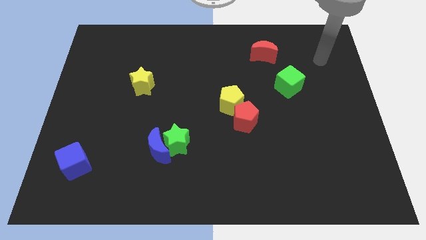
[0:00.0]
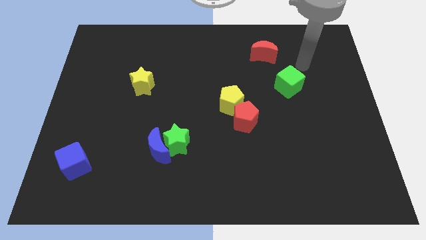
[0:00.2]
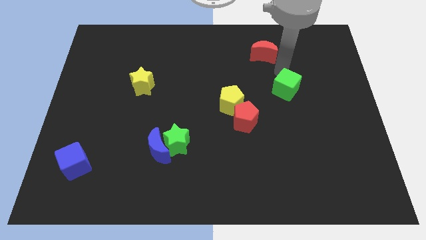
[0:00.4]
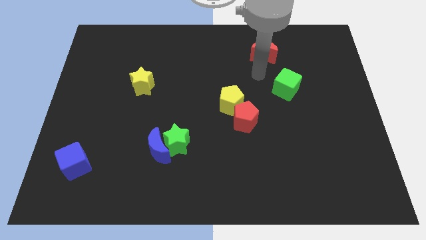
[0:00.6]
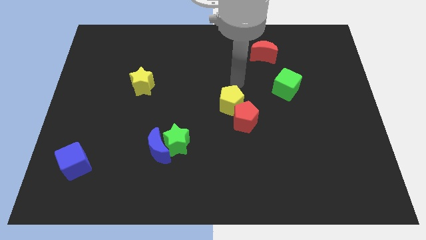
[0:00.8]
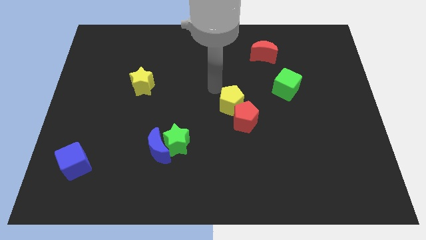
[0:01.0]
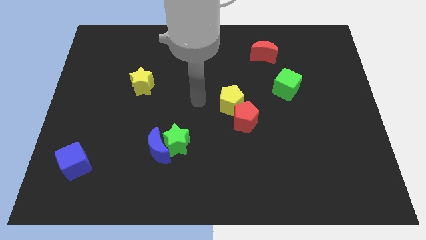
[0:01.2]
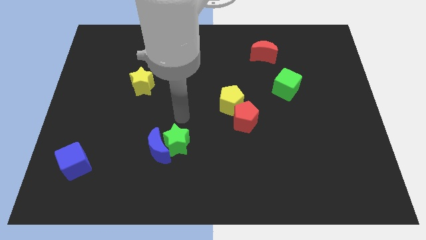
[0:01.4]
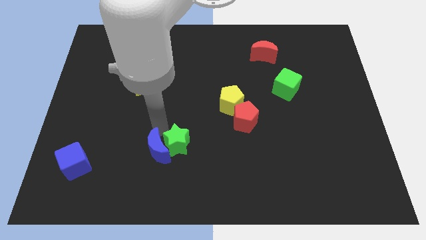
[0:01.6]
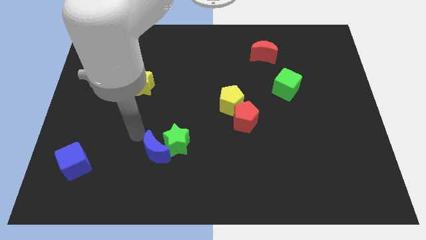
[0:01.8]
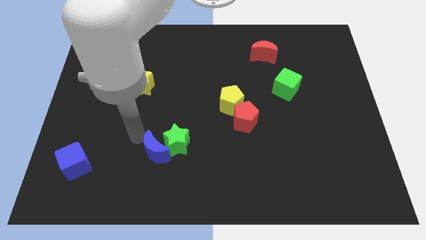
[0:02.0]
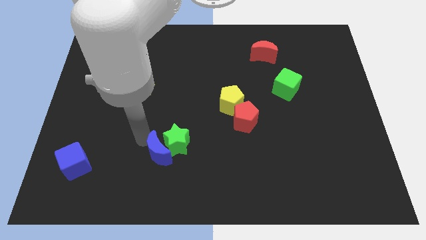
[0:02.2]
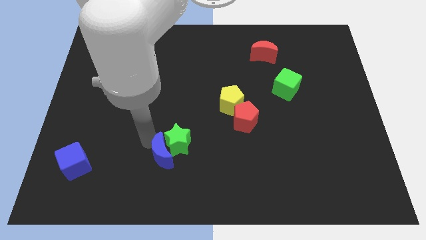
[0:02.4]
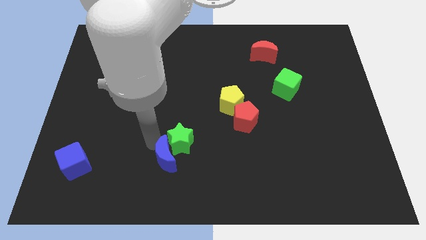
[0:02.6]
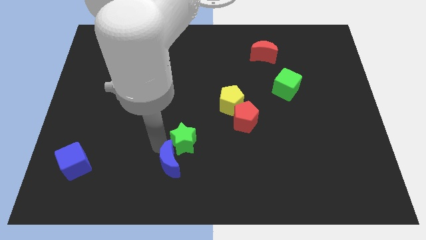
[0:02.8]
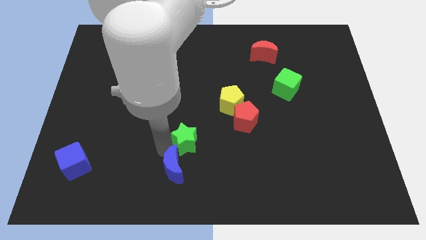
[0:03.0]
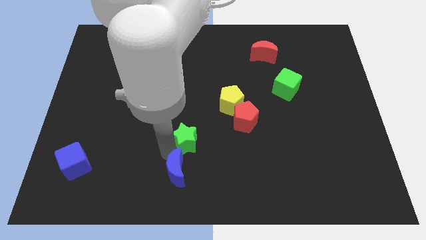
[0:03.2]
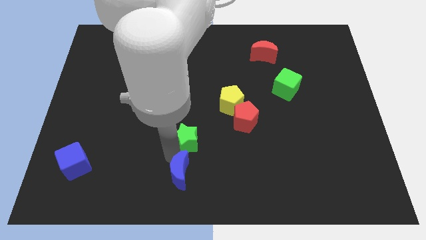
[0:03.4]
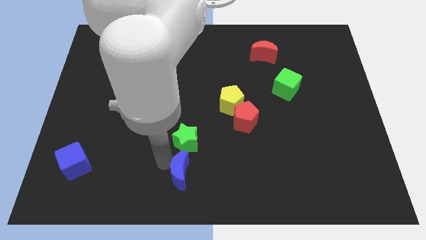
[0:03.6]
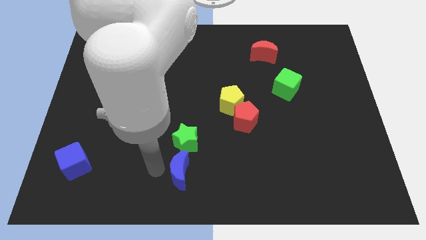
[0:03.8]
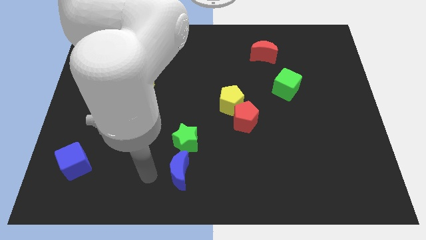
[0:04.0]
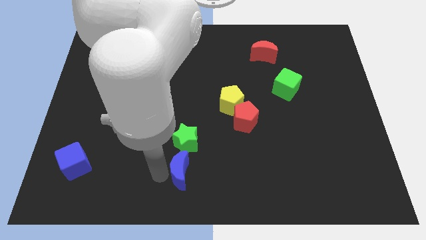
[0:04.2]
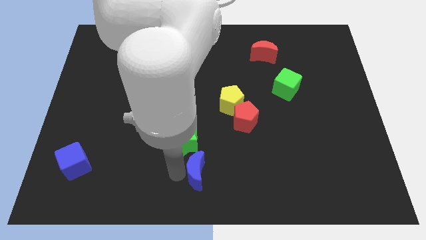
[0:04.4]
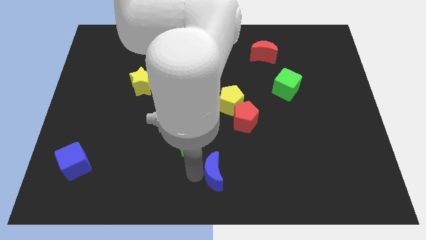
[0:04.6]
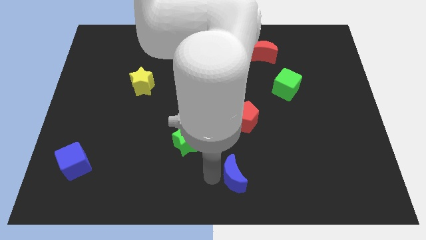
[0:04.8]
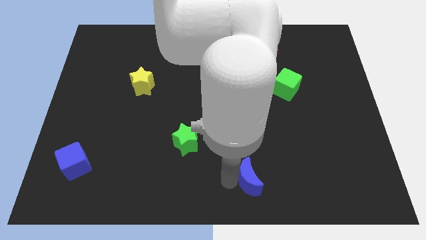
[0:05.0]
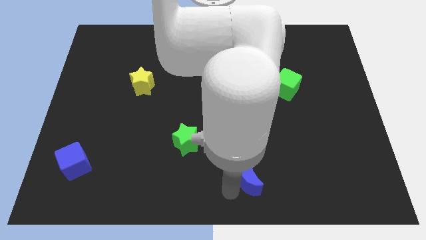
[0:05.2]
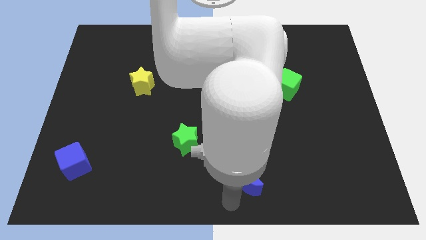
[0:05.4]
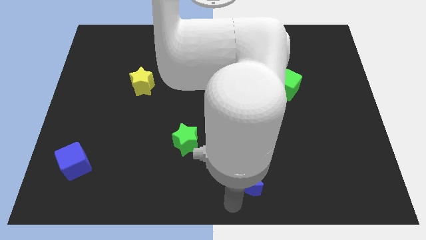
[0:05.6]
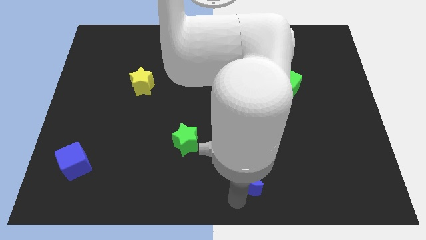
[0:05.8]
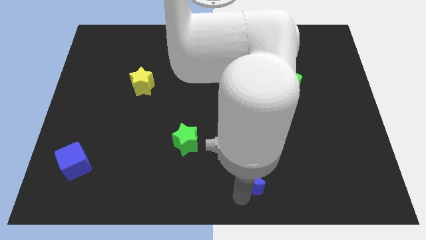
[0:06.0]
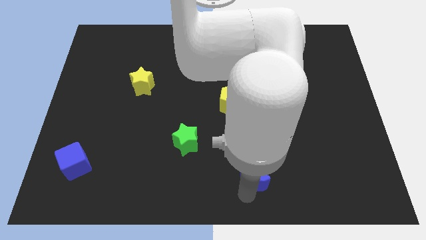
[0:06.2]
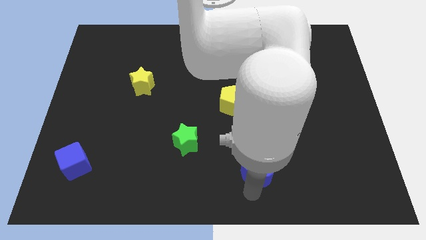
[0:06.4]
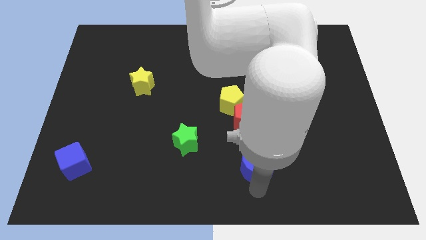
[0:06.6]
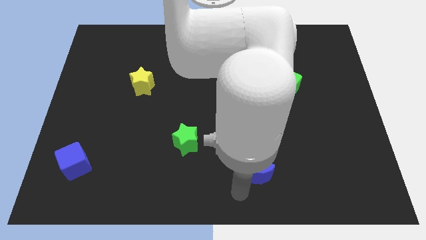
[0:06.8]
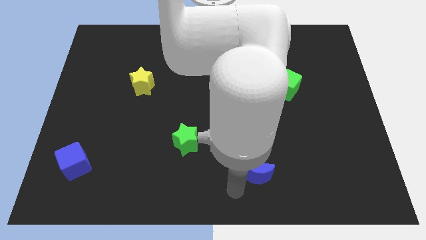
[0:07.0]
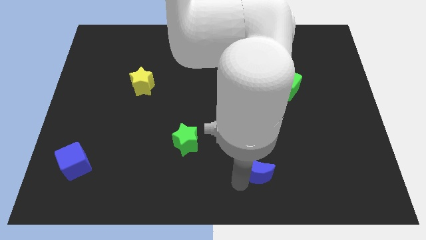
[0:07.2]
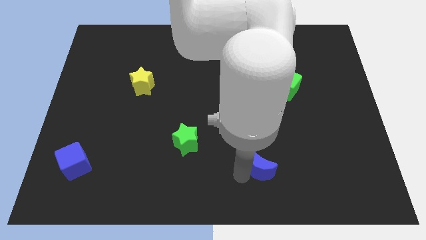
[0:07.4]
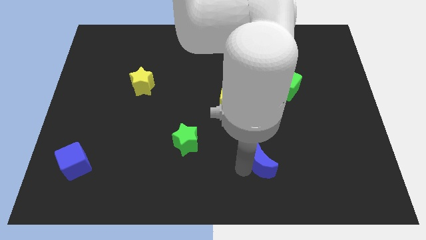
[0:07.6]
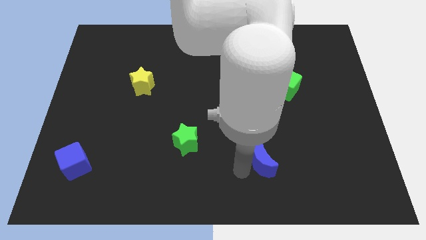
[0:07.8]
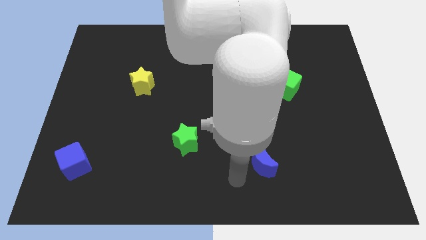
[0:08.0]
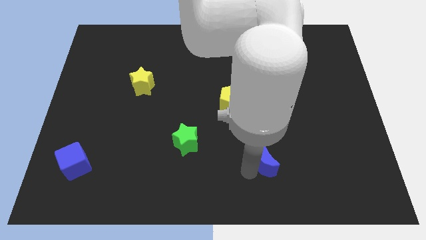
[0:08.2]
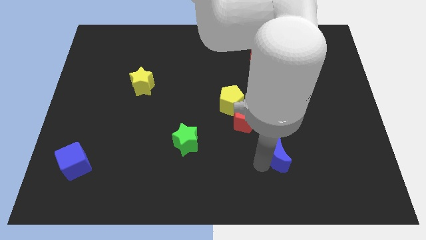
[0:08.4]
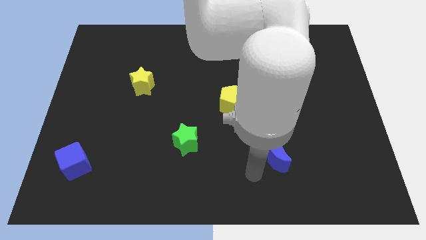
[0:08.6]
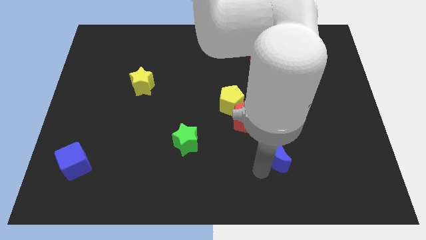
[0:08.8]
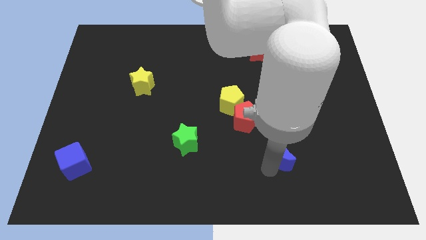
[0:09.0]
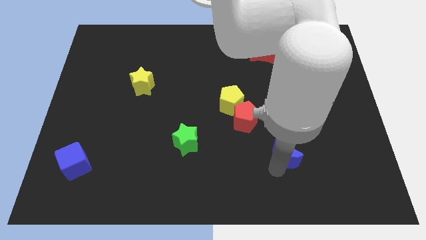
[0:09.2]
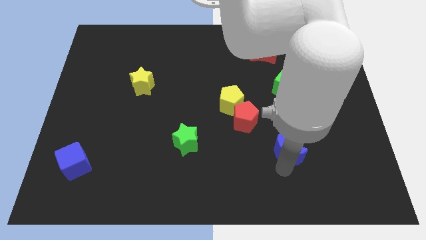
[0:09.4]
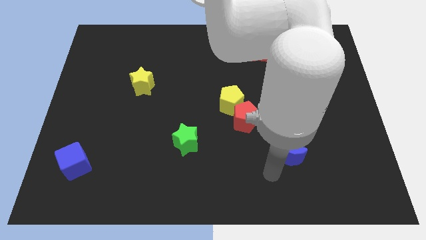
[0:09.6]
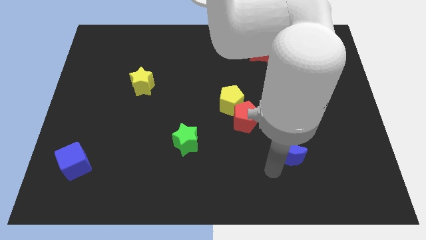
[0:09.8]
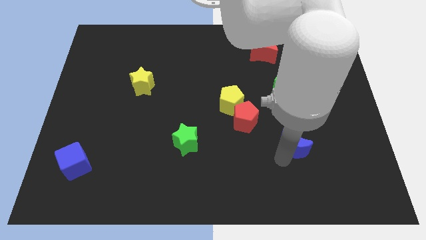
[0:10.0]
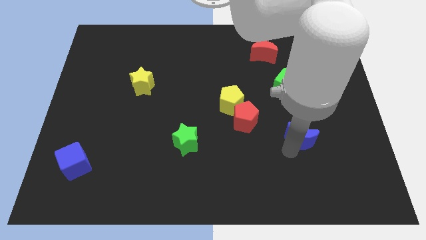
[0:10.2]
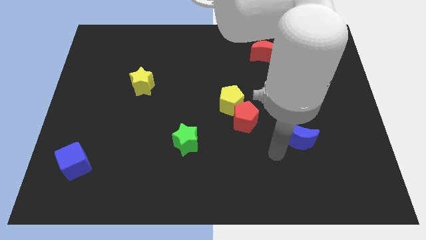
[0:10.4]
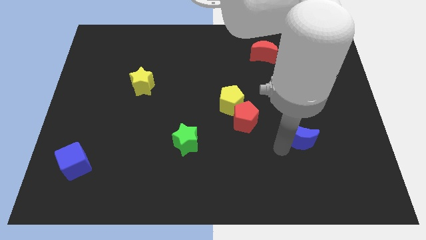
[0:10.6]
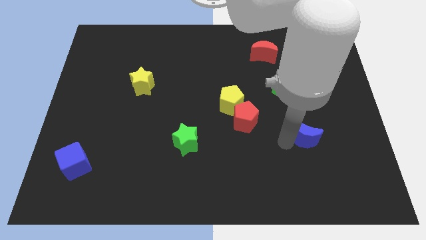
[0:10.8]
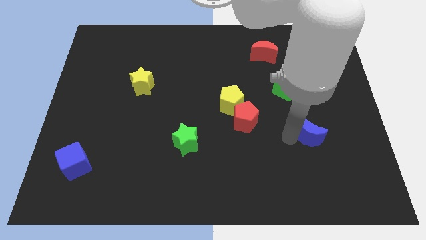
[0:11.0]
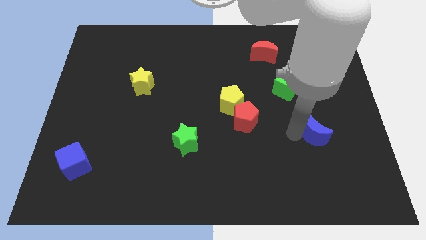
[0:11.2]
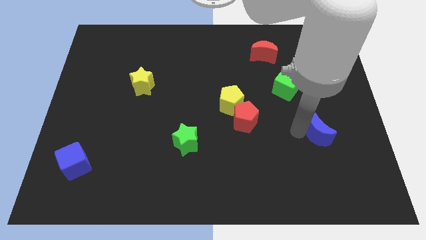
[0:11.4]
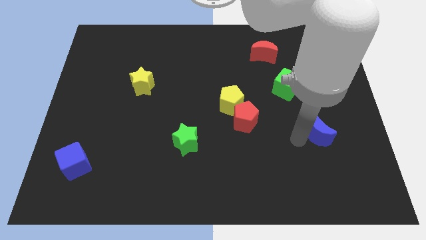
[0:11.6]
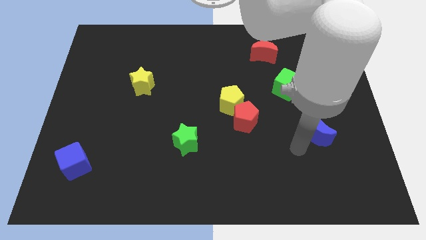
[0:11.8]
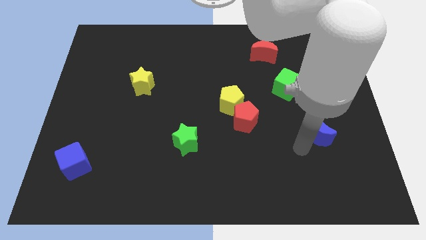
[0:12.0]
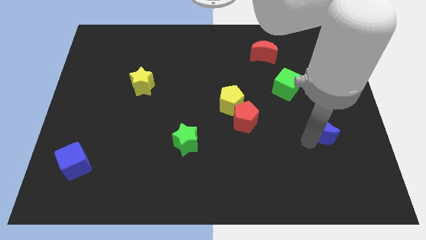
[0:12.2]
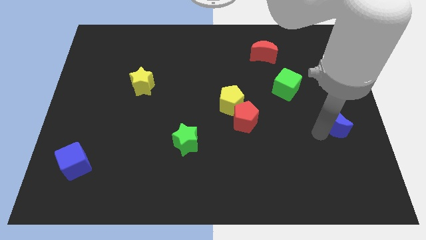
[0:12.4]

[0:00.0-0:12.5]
slide the blue moon to the right side
